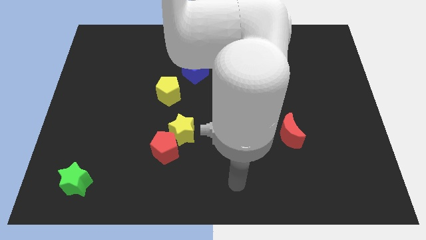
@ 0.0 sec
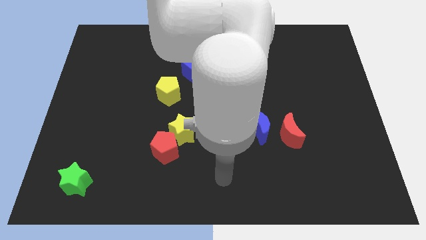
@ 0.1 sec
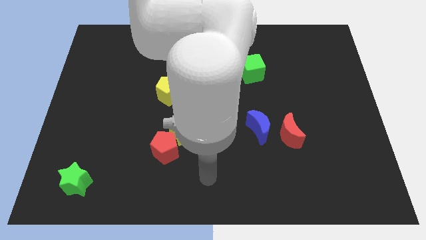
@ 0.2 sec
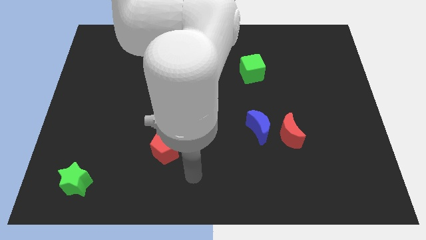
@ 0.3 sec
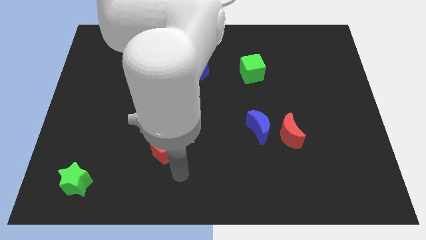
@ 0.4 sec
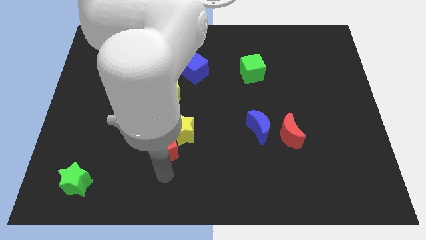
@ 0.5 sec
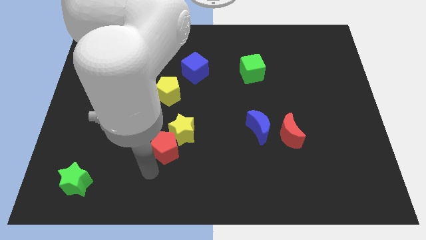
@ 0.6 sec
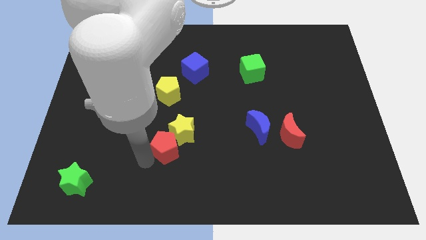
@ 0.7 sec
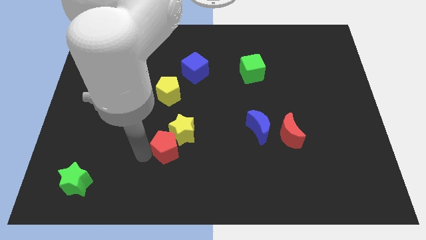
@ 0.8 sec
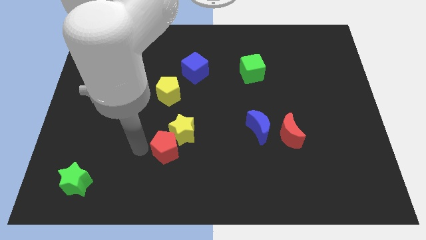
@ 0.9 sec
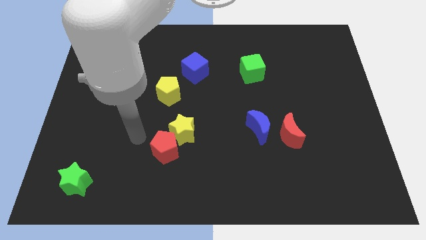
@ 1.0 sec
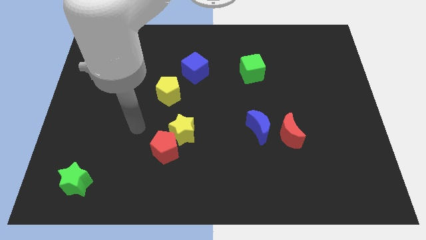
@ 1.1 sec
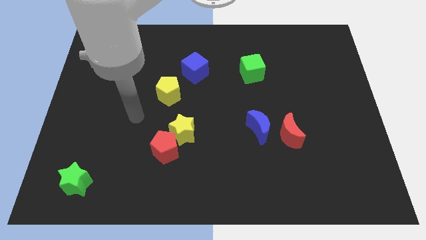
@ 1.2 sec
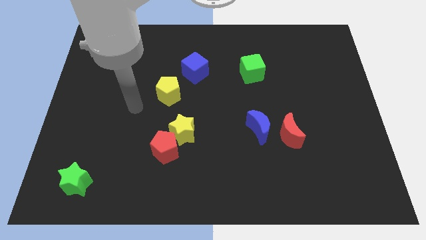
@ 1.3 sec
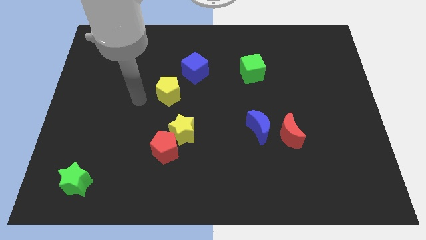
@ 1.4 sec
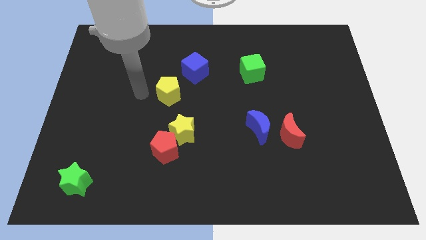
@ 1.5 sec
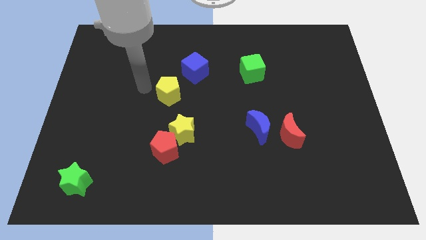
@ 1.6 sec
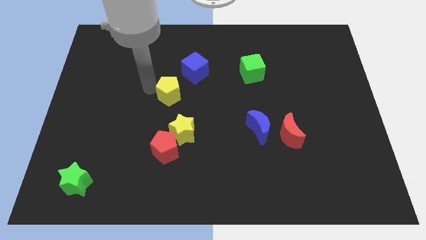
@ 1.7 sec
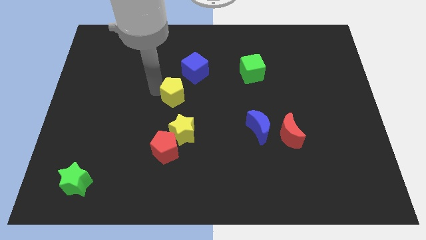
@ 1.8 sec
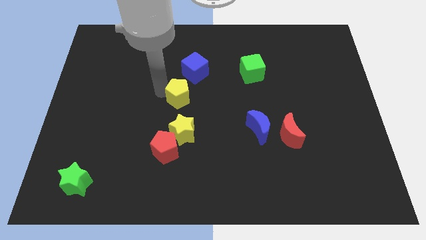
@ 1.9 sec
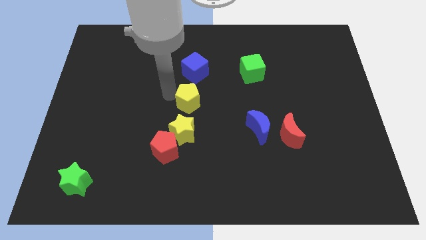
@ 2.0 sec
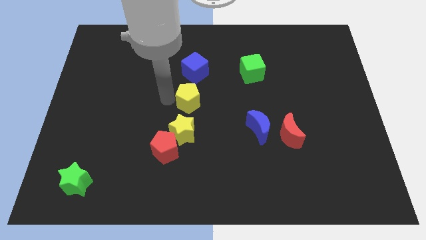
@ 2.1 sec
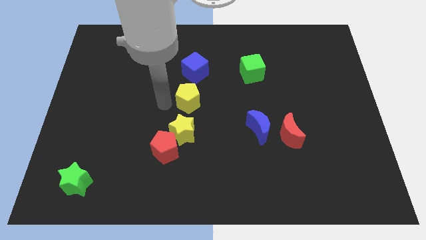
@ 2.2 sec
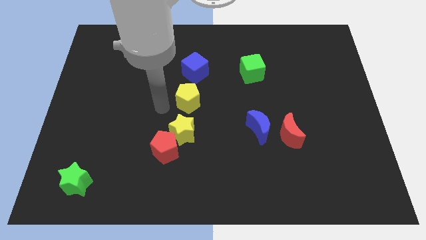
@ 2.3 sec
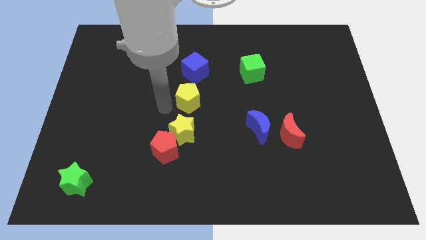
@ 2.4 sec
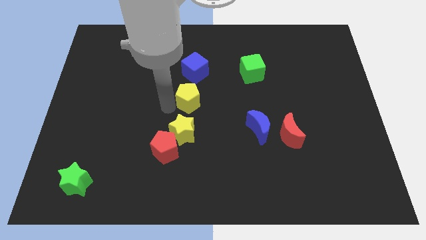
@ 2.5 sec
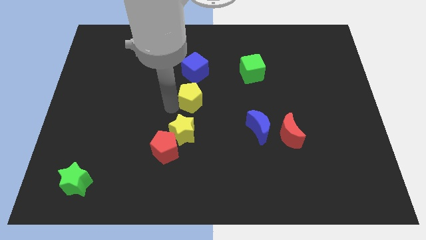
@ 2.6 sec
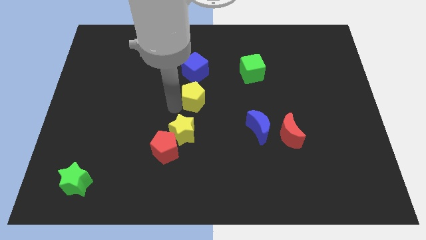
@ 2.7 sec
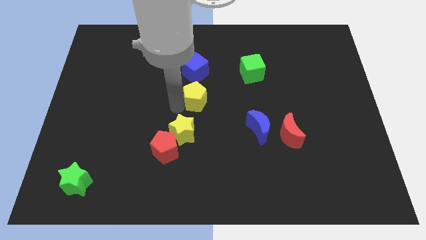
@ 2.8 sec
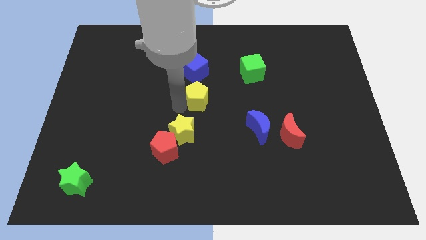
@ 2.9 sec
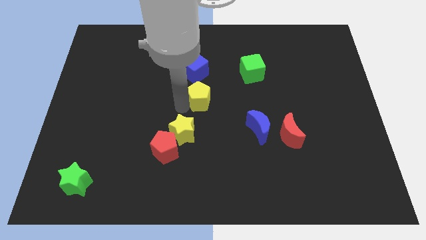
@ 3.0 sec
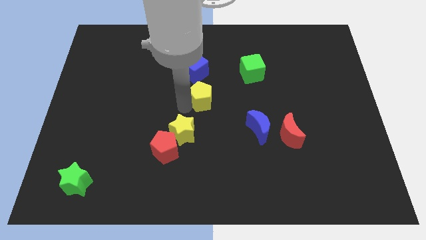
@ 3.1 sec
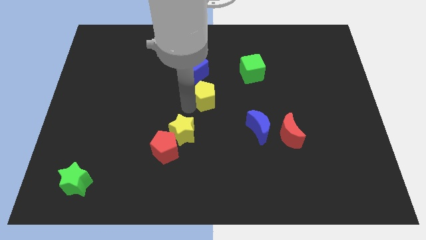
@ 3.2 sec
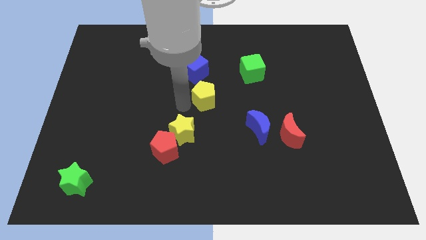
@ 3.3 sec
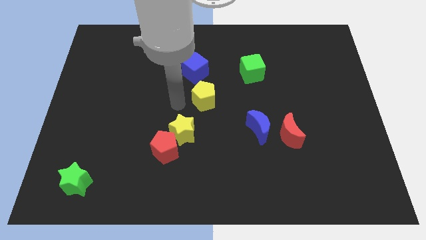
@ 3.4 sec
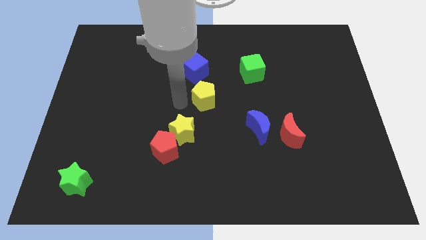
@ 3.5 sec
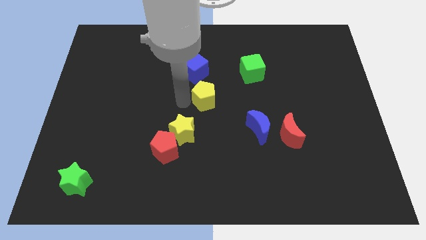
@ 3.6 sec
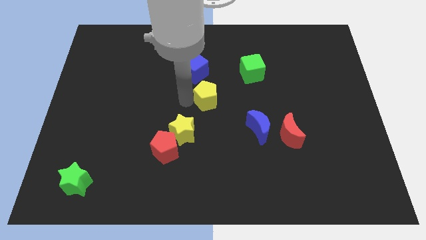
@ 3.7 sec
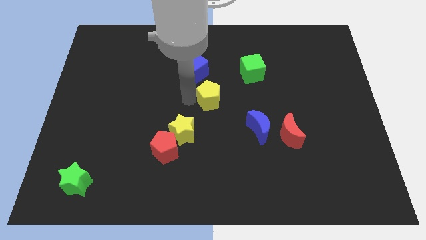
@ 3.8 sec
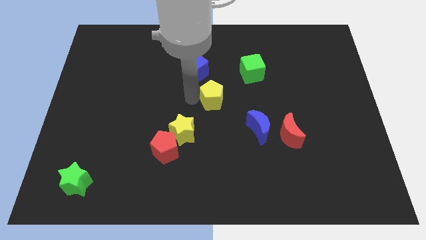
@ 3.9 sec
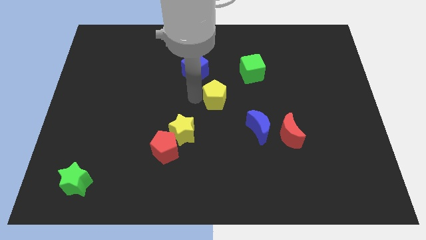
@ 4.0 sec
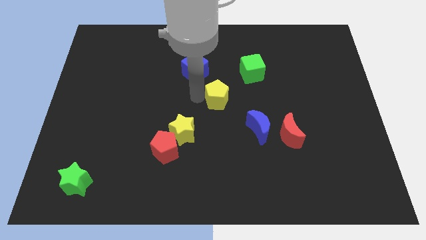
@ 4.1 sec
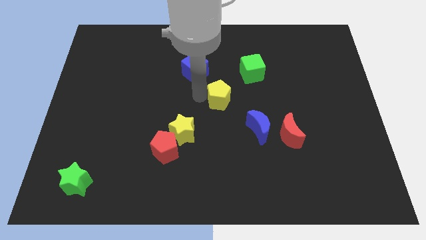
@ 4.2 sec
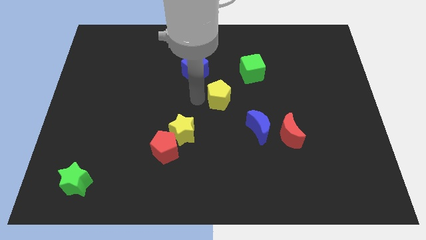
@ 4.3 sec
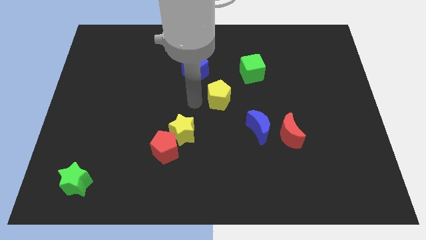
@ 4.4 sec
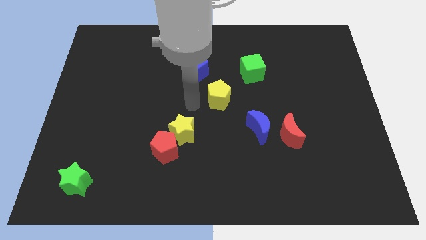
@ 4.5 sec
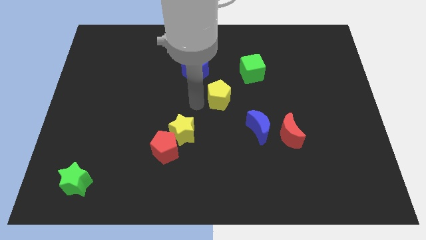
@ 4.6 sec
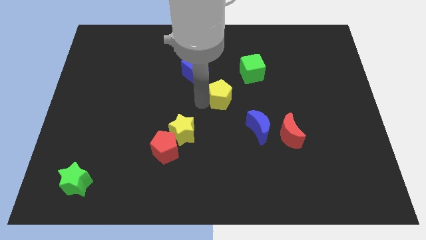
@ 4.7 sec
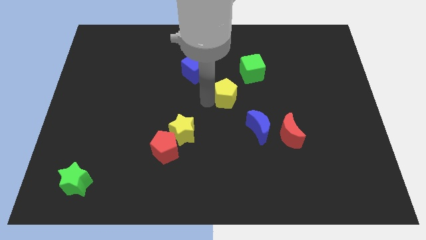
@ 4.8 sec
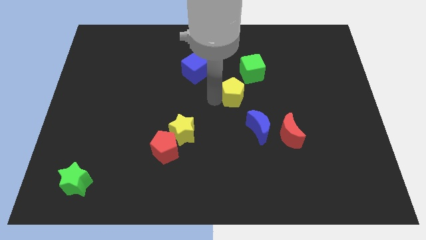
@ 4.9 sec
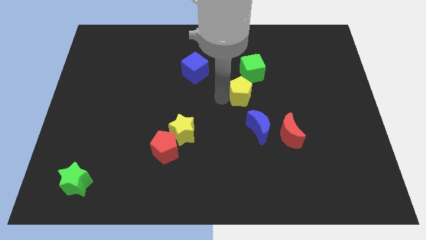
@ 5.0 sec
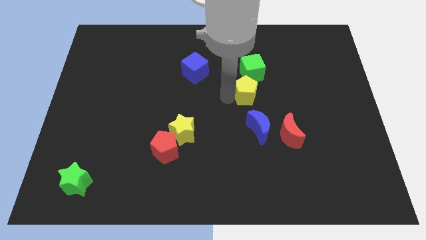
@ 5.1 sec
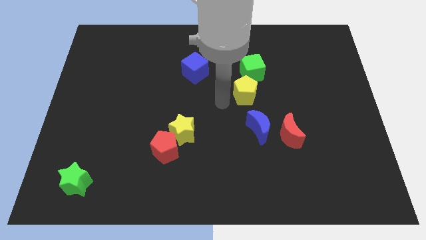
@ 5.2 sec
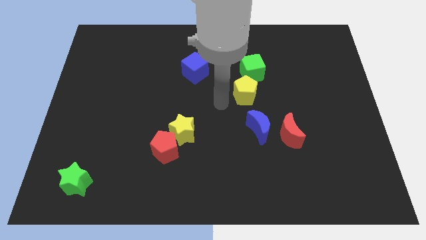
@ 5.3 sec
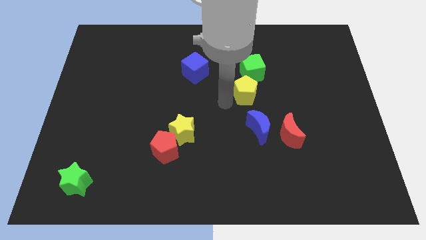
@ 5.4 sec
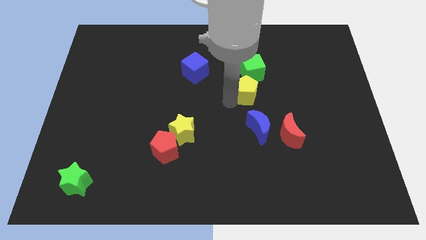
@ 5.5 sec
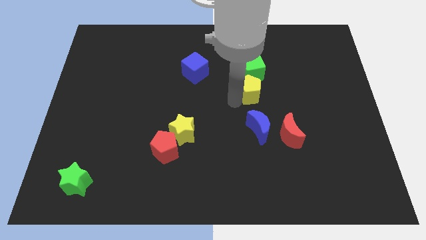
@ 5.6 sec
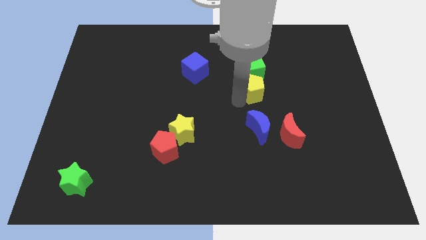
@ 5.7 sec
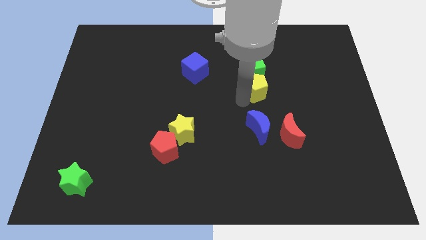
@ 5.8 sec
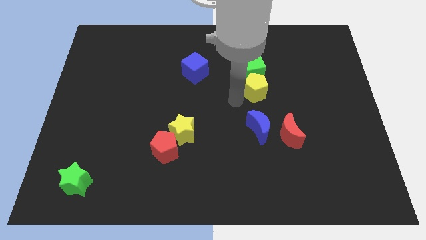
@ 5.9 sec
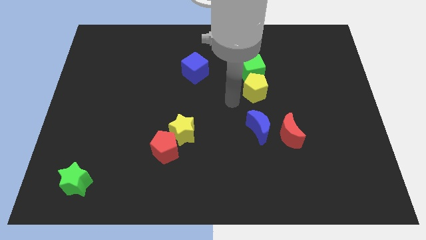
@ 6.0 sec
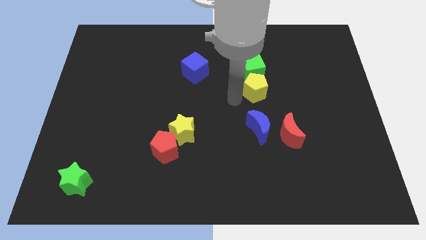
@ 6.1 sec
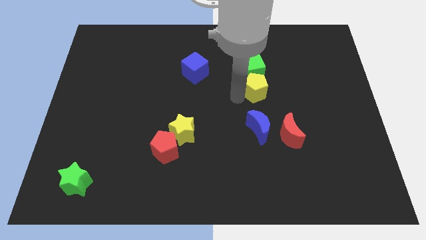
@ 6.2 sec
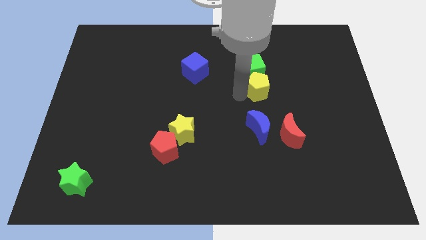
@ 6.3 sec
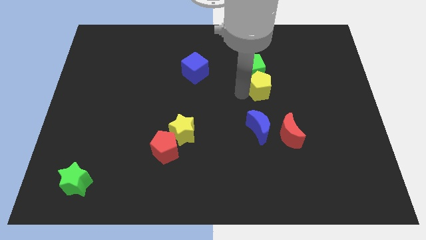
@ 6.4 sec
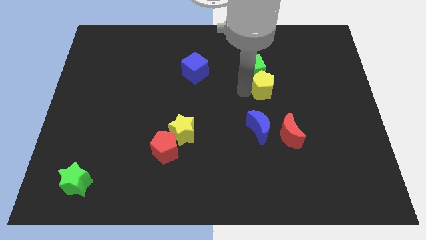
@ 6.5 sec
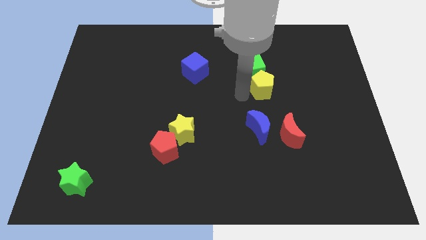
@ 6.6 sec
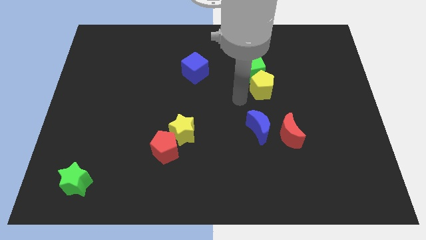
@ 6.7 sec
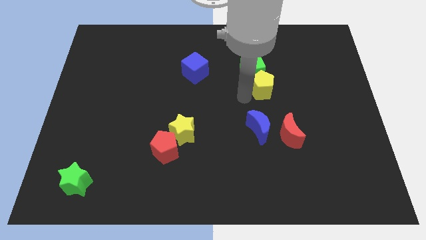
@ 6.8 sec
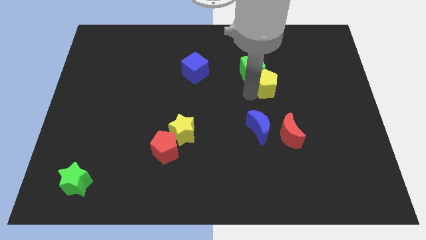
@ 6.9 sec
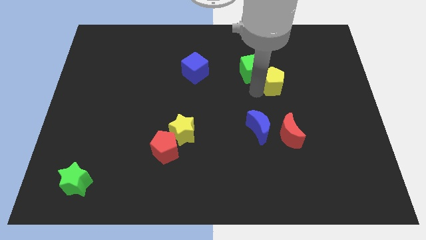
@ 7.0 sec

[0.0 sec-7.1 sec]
put the yellow pentagon right of the green cube
